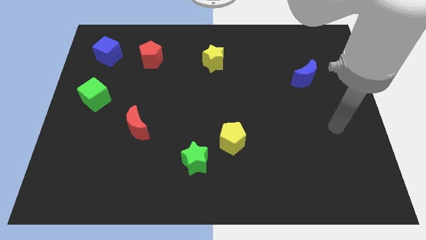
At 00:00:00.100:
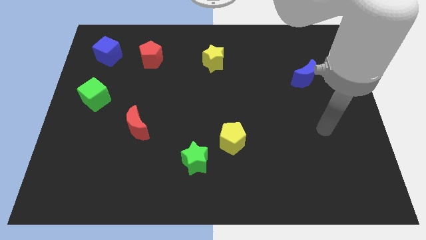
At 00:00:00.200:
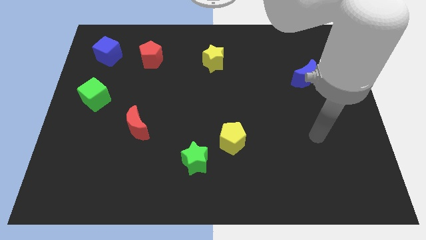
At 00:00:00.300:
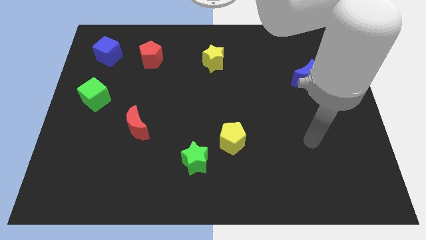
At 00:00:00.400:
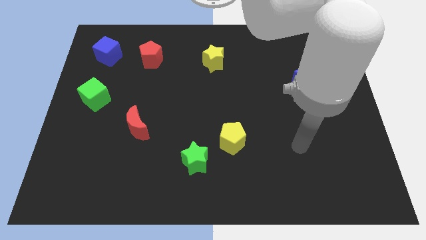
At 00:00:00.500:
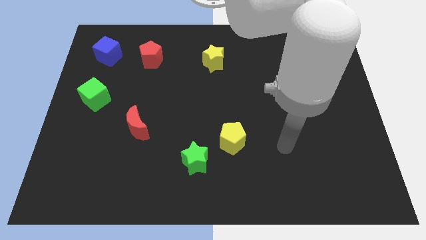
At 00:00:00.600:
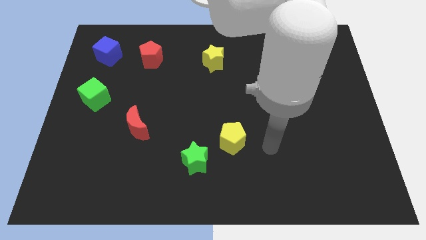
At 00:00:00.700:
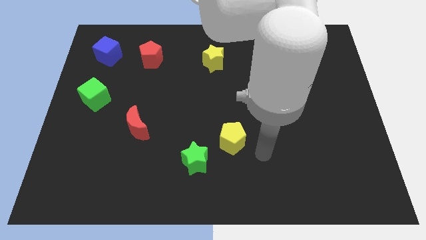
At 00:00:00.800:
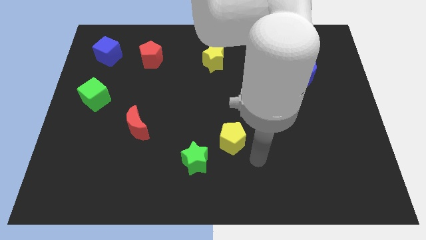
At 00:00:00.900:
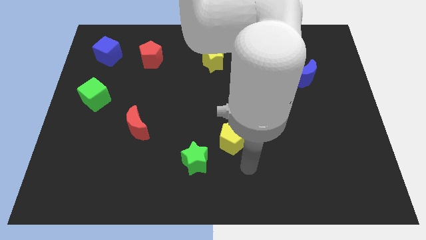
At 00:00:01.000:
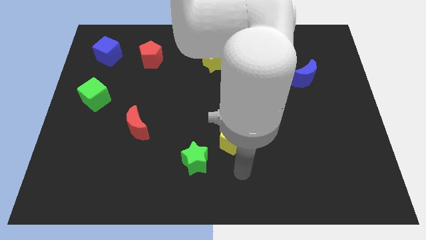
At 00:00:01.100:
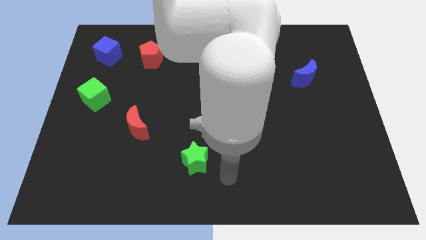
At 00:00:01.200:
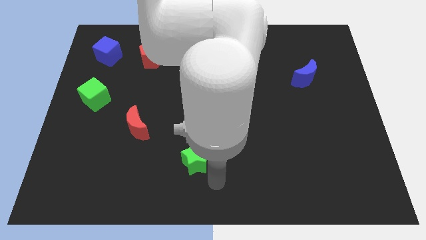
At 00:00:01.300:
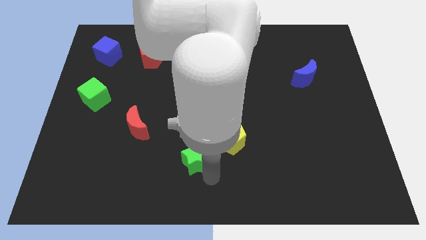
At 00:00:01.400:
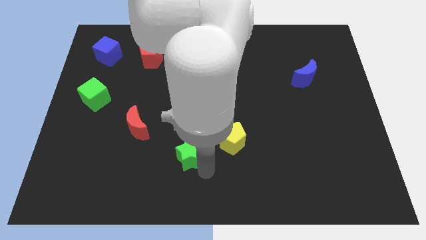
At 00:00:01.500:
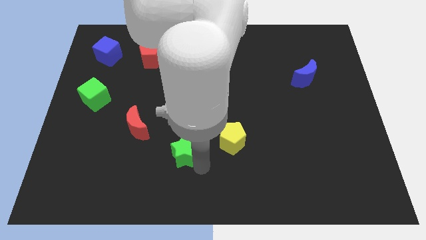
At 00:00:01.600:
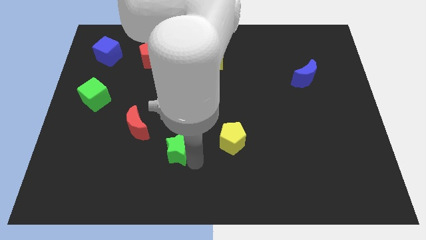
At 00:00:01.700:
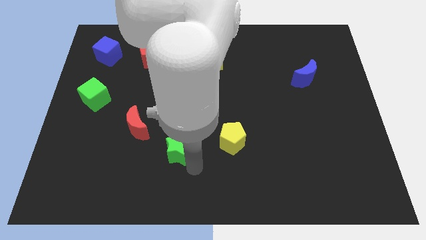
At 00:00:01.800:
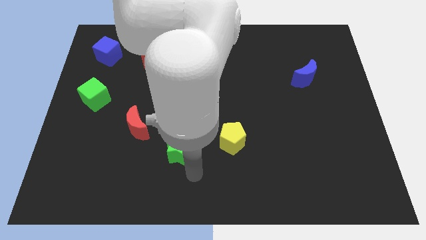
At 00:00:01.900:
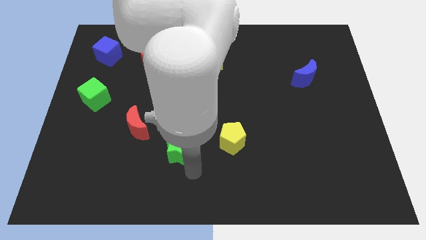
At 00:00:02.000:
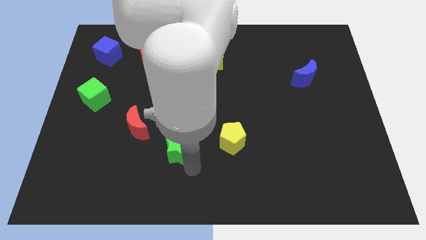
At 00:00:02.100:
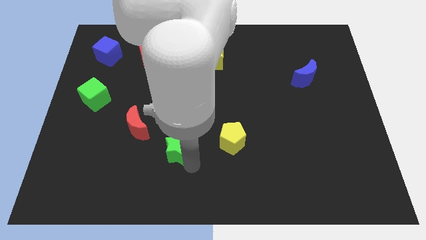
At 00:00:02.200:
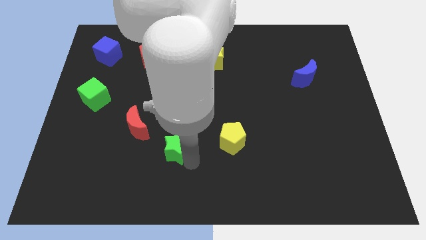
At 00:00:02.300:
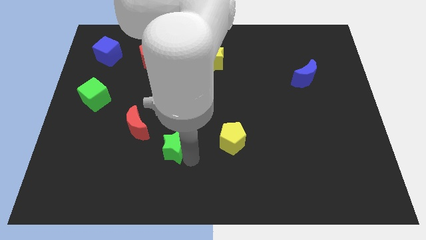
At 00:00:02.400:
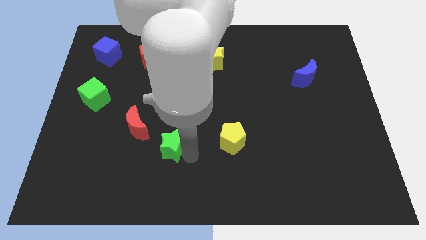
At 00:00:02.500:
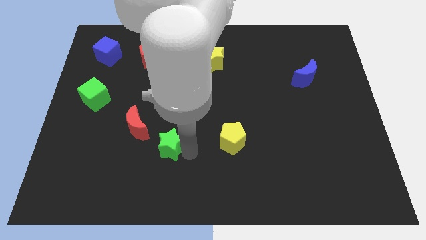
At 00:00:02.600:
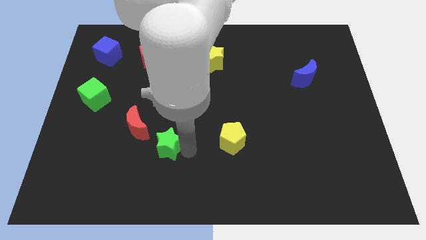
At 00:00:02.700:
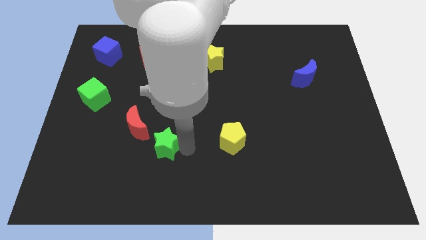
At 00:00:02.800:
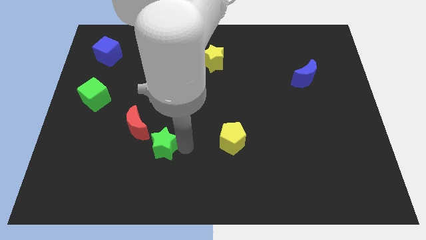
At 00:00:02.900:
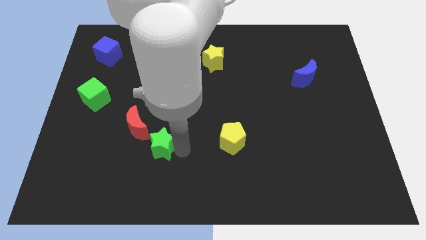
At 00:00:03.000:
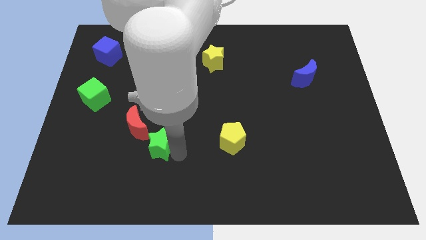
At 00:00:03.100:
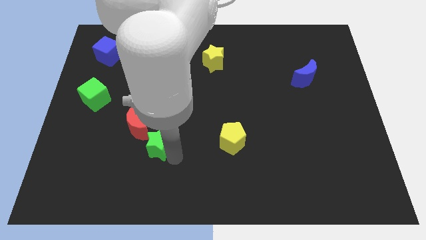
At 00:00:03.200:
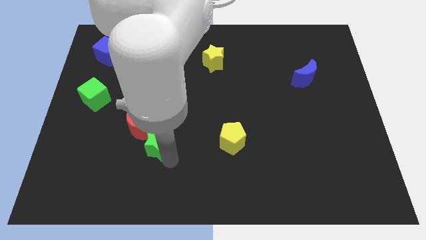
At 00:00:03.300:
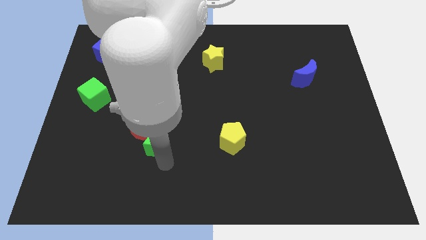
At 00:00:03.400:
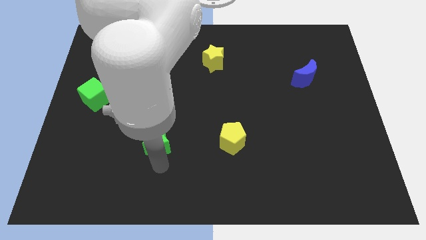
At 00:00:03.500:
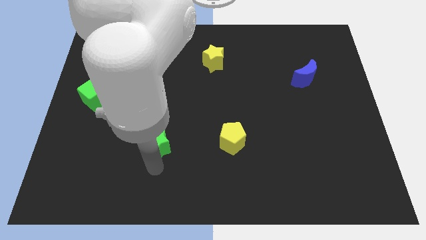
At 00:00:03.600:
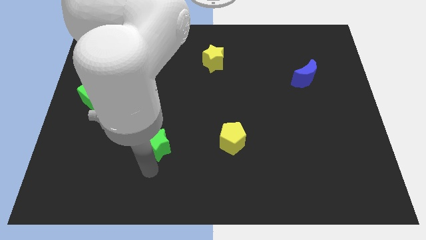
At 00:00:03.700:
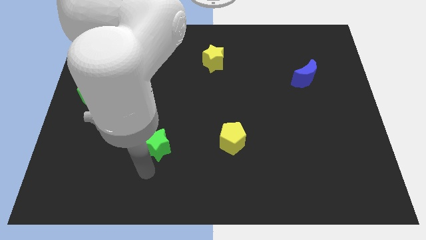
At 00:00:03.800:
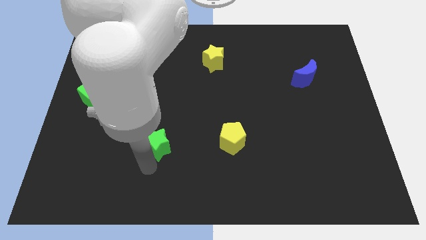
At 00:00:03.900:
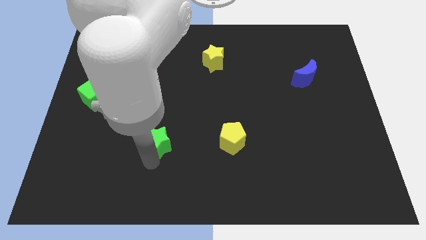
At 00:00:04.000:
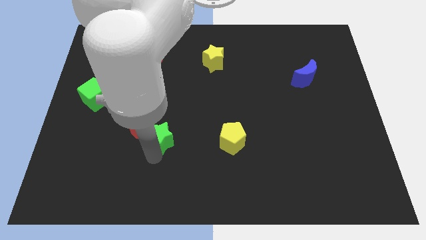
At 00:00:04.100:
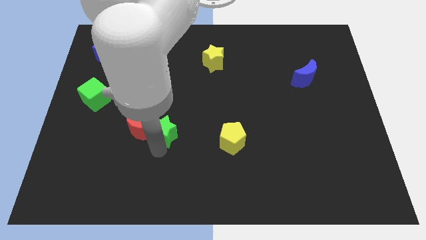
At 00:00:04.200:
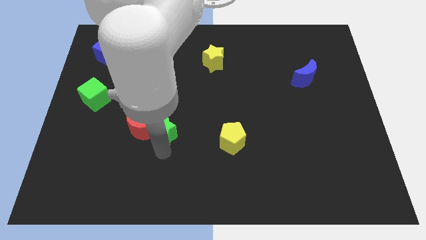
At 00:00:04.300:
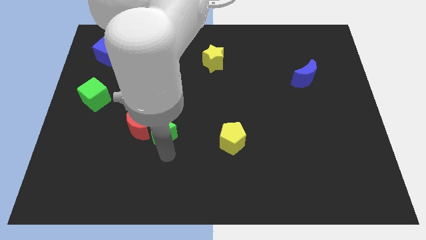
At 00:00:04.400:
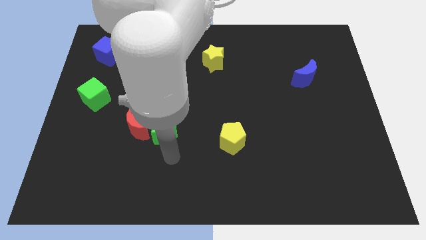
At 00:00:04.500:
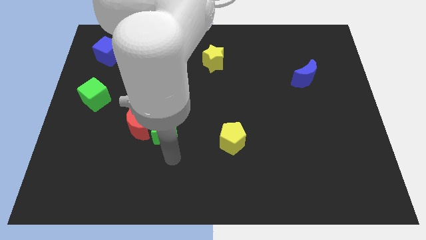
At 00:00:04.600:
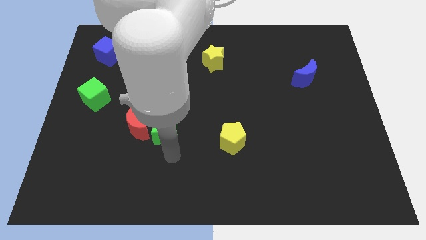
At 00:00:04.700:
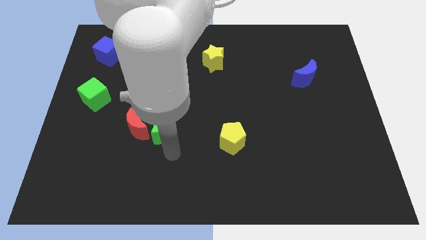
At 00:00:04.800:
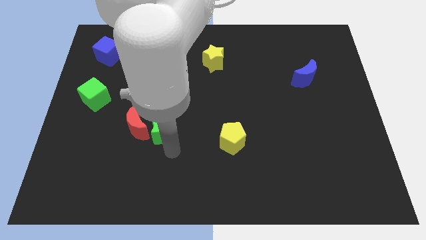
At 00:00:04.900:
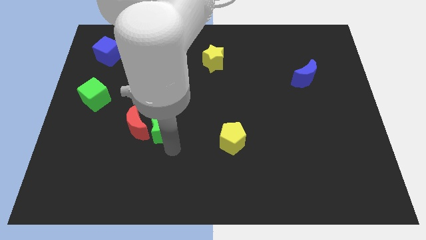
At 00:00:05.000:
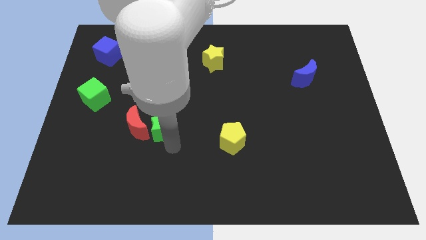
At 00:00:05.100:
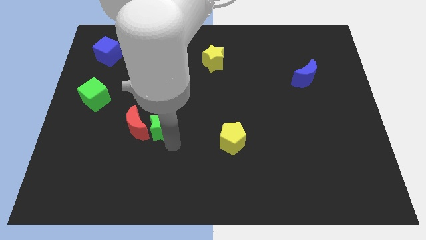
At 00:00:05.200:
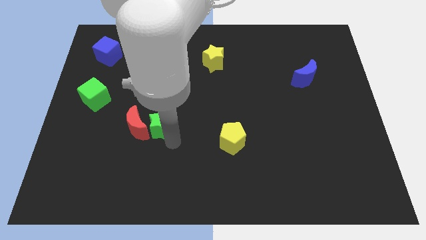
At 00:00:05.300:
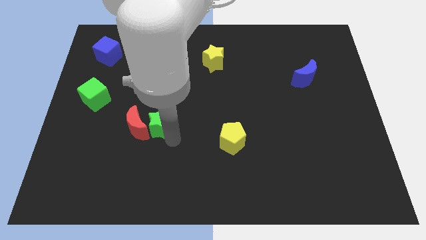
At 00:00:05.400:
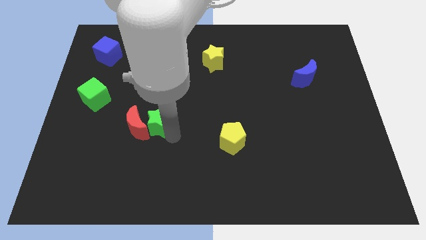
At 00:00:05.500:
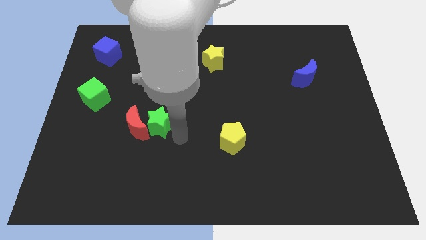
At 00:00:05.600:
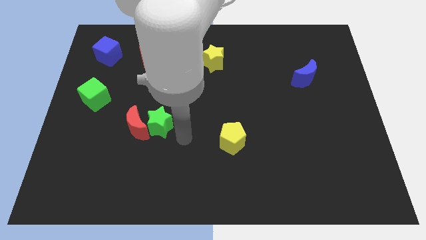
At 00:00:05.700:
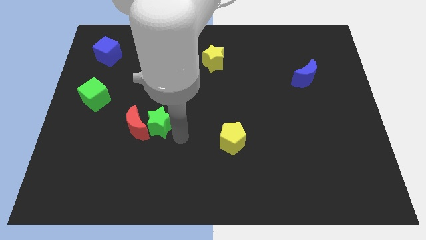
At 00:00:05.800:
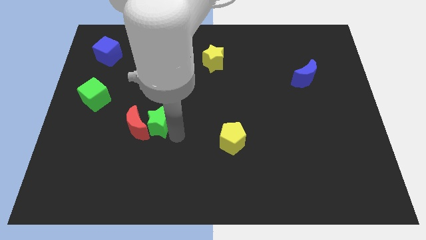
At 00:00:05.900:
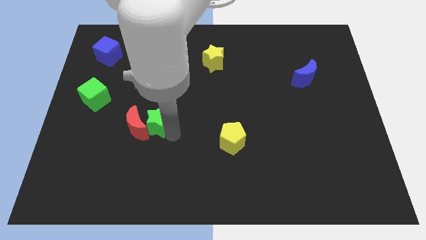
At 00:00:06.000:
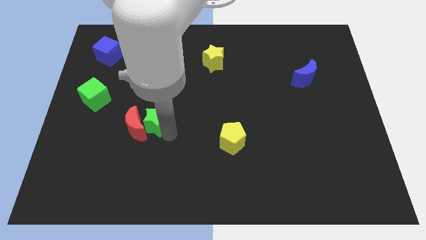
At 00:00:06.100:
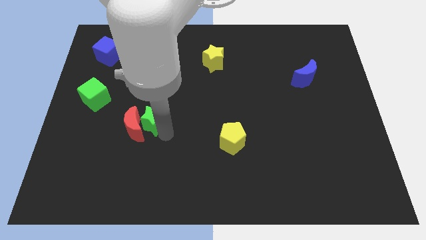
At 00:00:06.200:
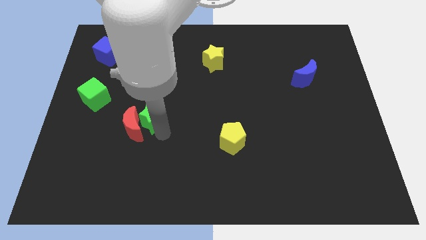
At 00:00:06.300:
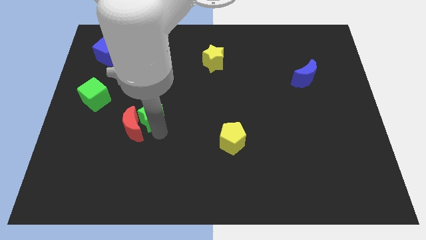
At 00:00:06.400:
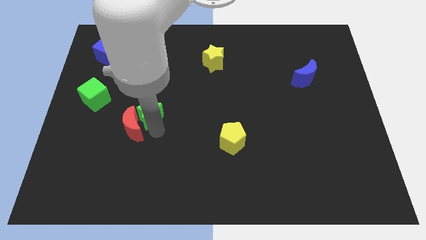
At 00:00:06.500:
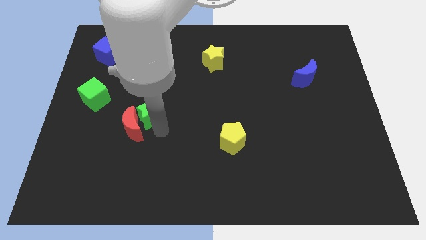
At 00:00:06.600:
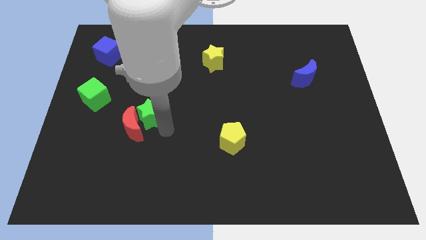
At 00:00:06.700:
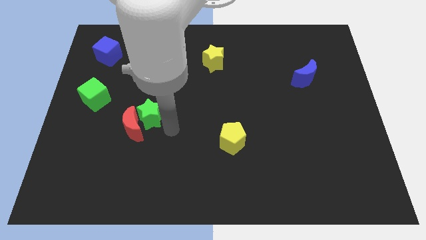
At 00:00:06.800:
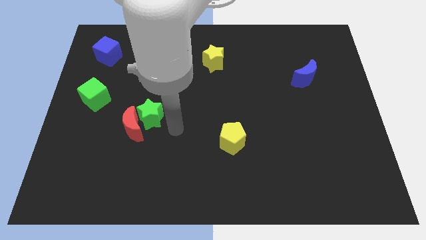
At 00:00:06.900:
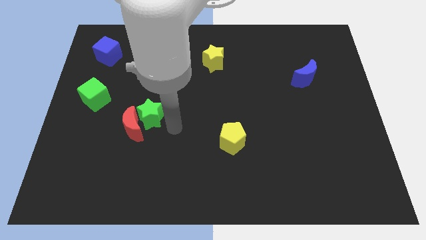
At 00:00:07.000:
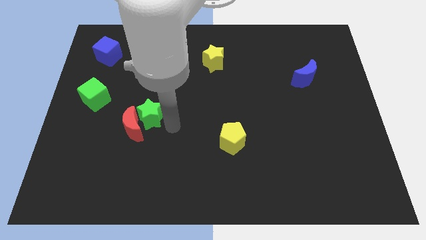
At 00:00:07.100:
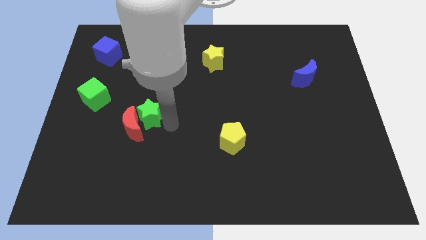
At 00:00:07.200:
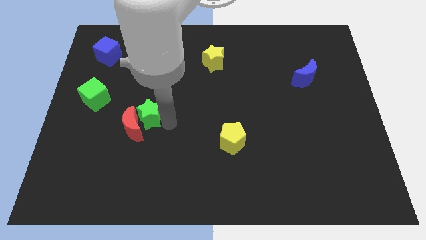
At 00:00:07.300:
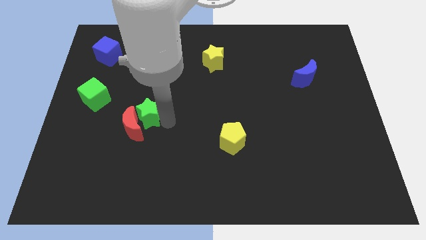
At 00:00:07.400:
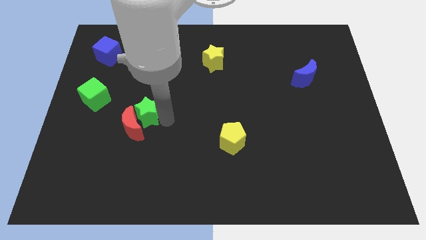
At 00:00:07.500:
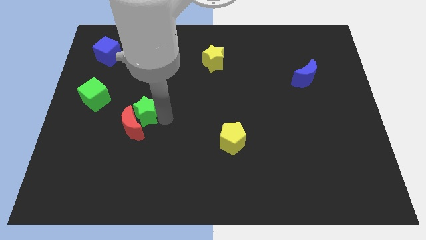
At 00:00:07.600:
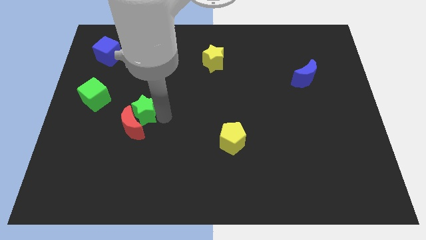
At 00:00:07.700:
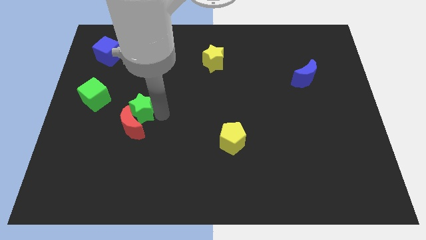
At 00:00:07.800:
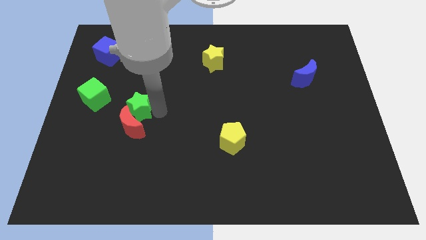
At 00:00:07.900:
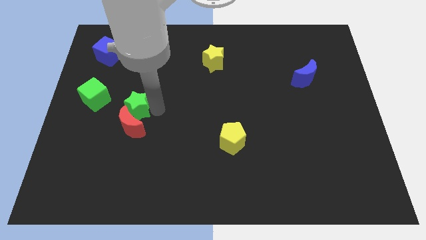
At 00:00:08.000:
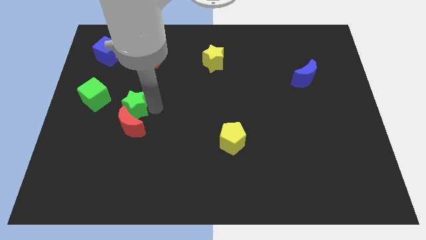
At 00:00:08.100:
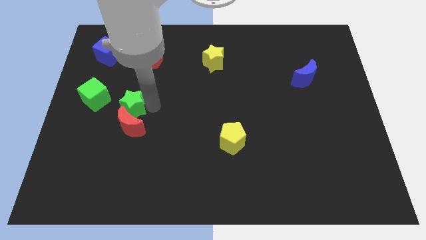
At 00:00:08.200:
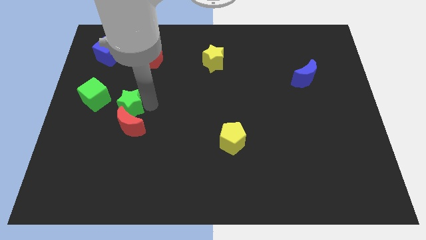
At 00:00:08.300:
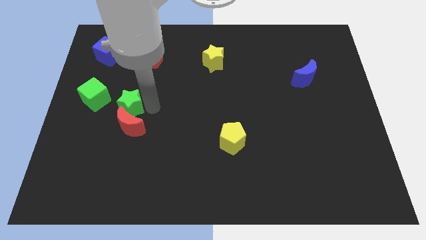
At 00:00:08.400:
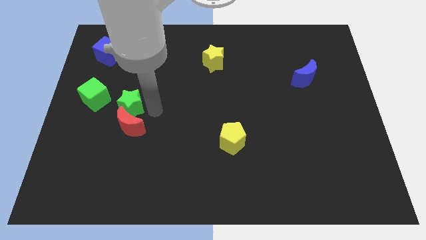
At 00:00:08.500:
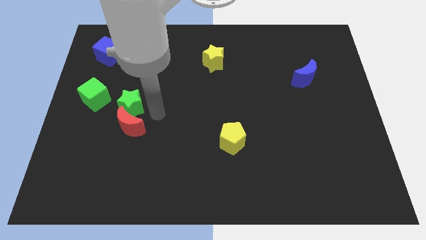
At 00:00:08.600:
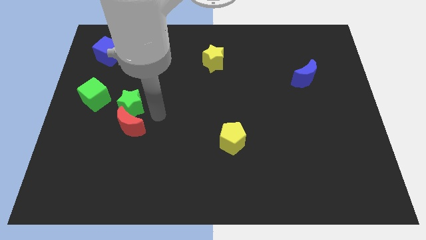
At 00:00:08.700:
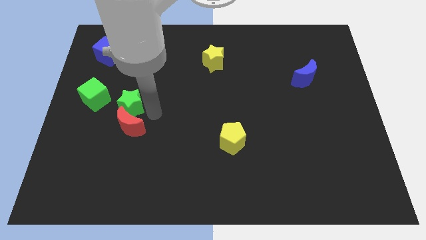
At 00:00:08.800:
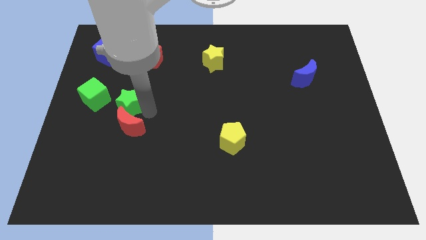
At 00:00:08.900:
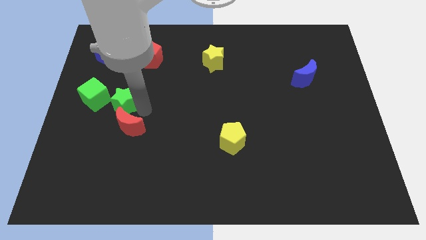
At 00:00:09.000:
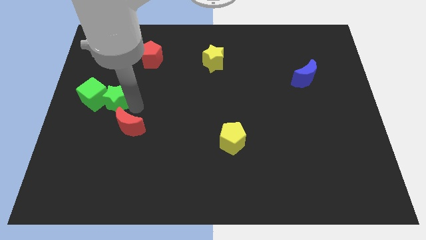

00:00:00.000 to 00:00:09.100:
move the green star towards the green cube
